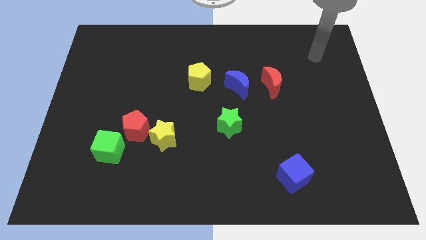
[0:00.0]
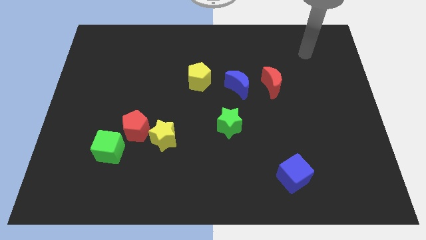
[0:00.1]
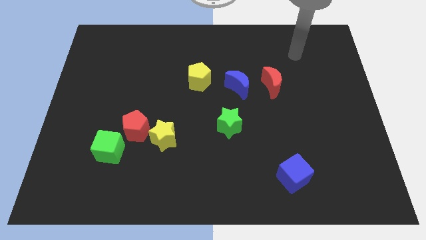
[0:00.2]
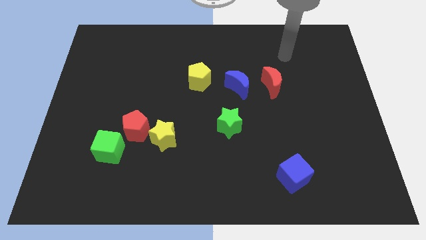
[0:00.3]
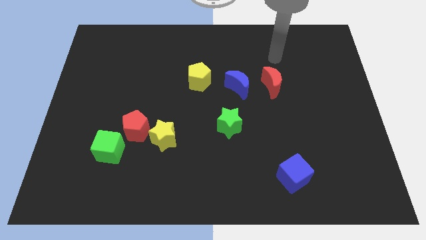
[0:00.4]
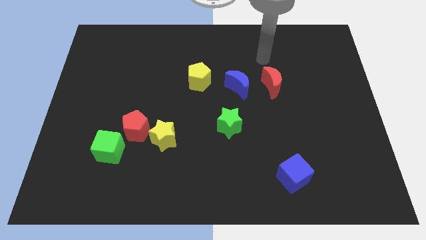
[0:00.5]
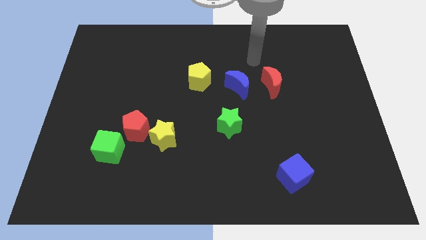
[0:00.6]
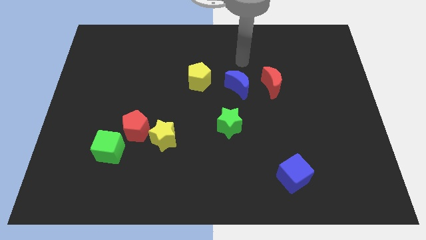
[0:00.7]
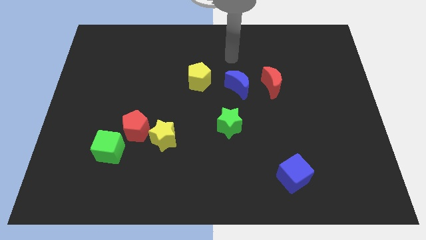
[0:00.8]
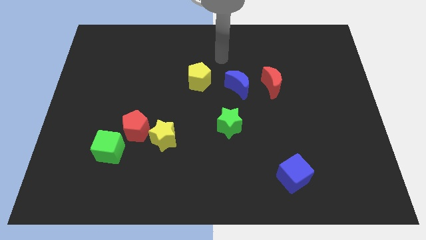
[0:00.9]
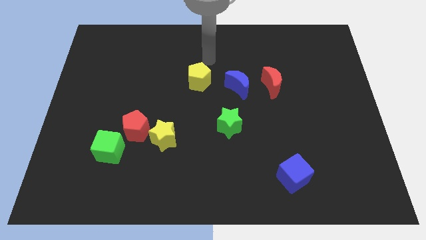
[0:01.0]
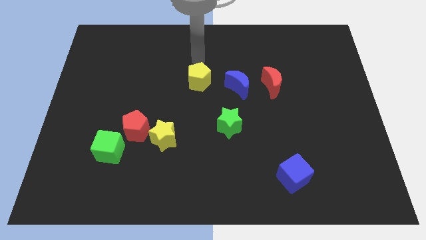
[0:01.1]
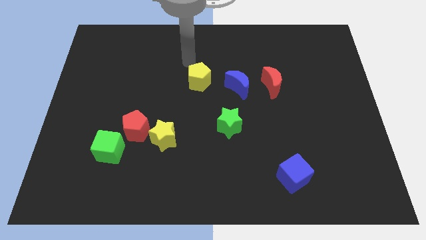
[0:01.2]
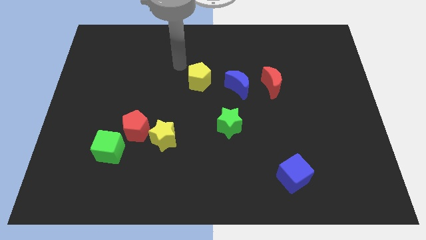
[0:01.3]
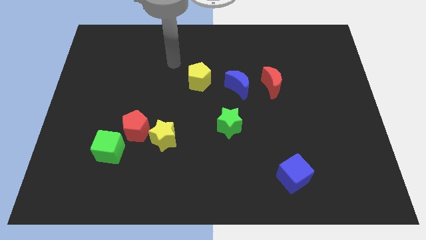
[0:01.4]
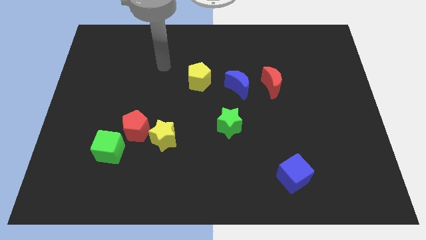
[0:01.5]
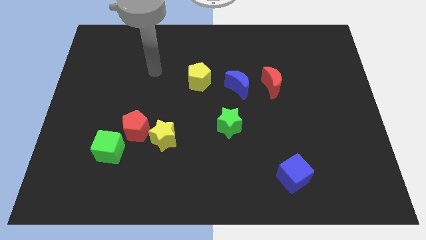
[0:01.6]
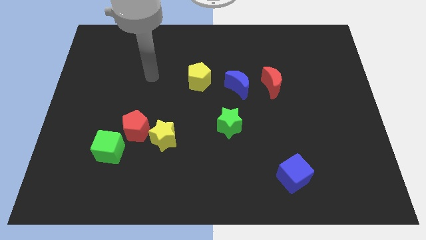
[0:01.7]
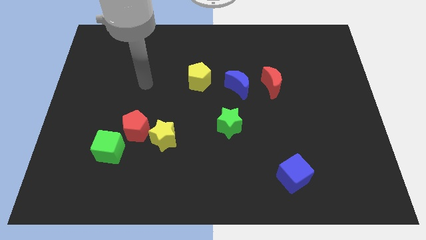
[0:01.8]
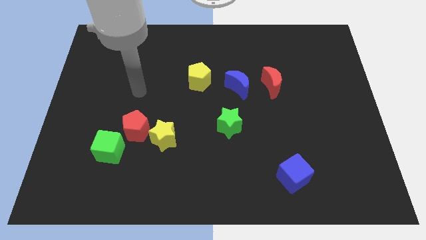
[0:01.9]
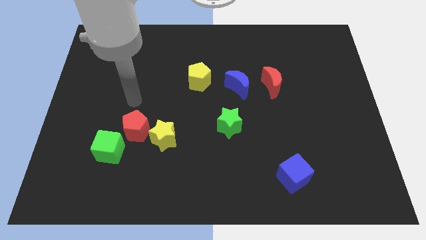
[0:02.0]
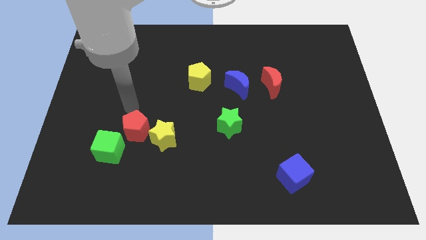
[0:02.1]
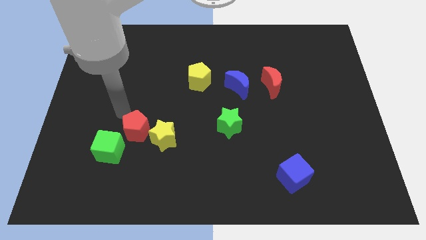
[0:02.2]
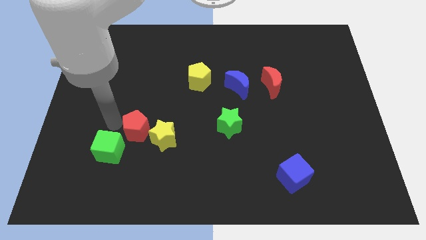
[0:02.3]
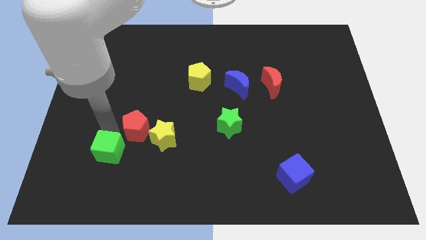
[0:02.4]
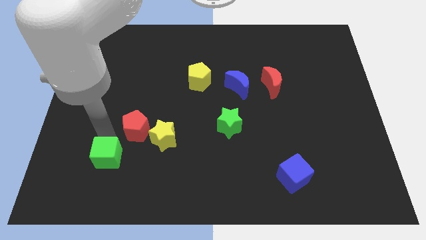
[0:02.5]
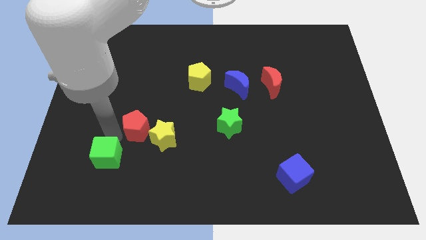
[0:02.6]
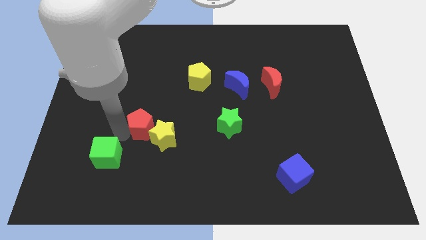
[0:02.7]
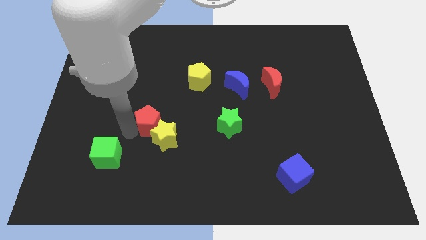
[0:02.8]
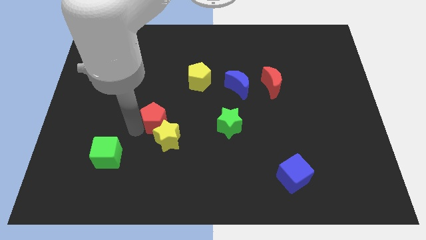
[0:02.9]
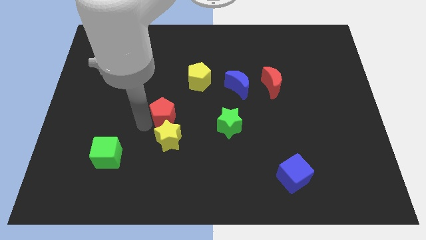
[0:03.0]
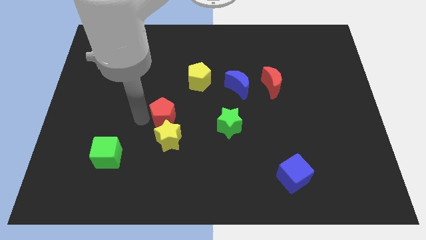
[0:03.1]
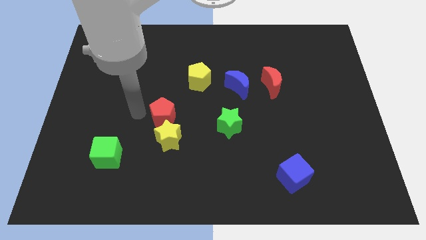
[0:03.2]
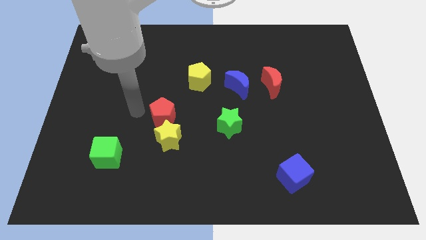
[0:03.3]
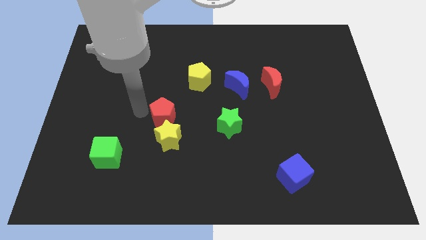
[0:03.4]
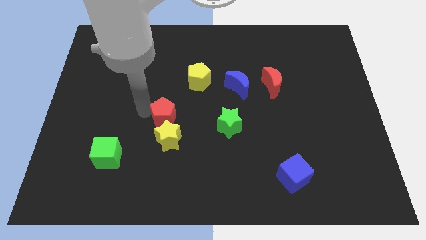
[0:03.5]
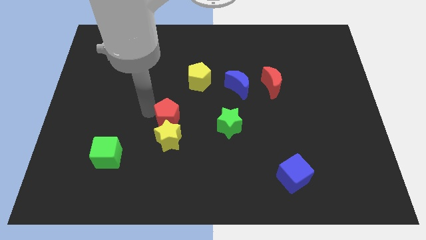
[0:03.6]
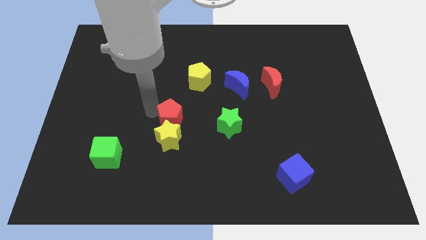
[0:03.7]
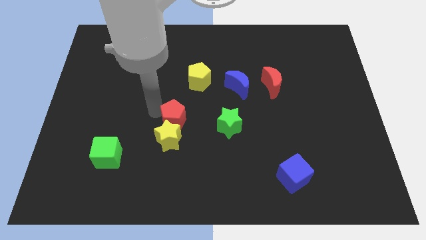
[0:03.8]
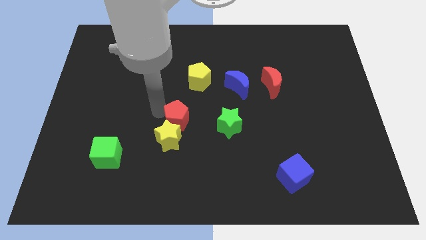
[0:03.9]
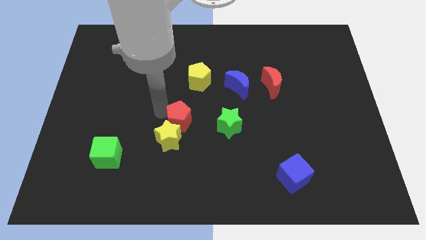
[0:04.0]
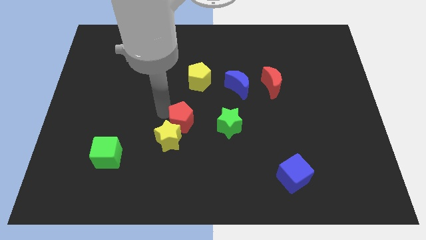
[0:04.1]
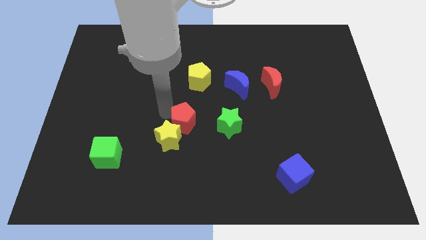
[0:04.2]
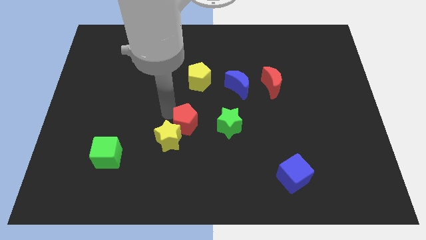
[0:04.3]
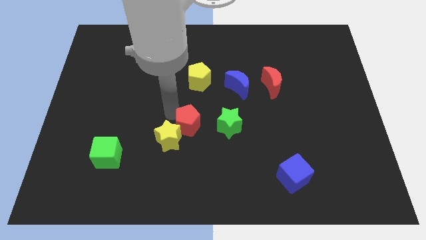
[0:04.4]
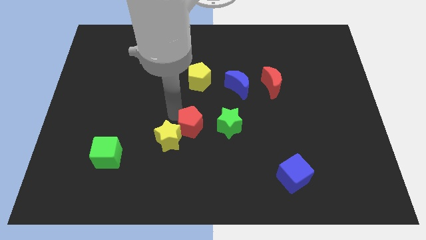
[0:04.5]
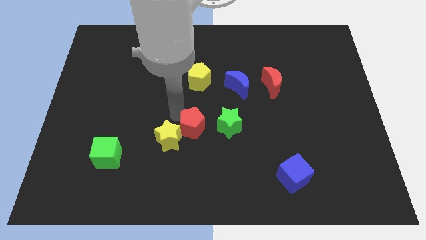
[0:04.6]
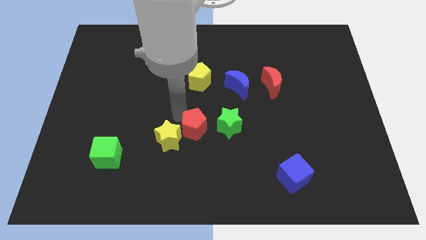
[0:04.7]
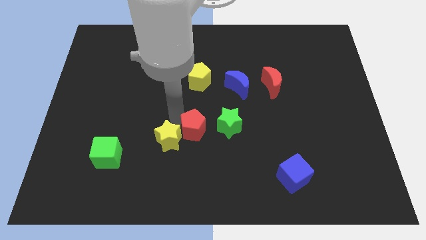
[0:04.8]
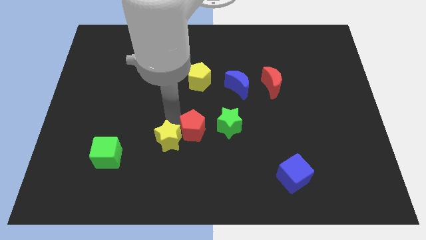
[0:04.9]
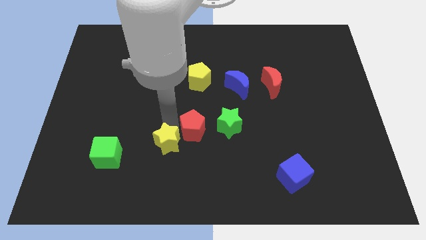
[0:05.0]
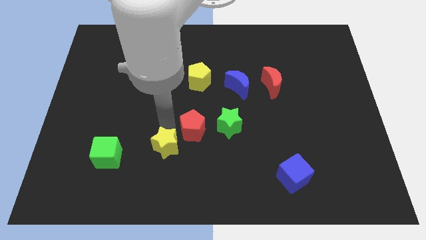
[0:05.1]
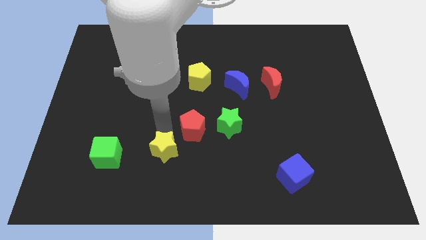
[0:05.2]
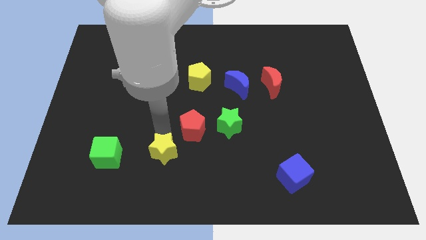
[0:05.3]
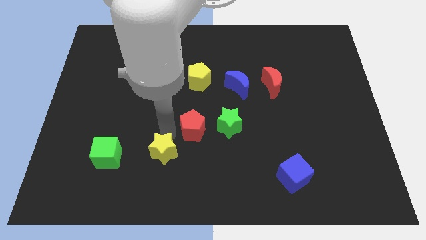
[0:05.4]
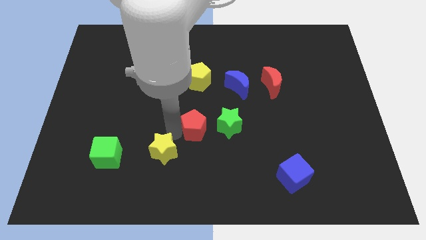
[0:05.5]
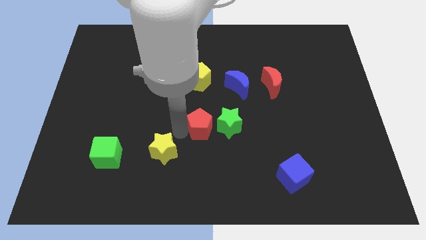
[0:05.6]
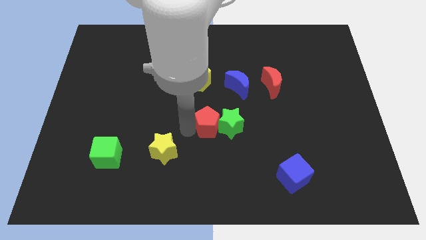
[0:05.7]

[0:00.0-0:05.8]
slide the red pentagon to the green star
